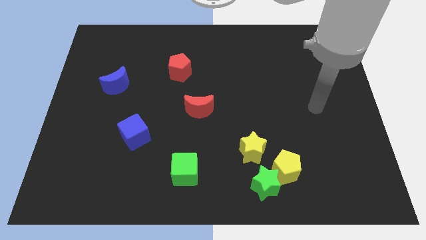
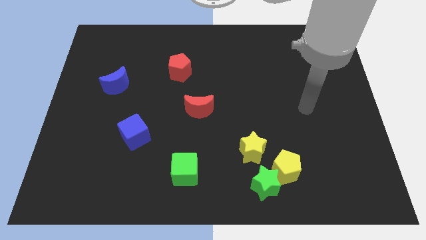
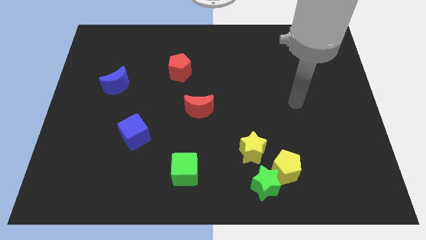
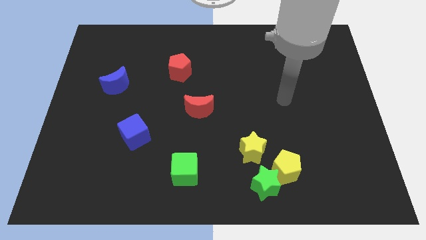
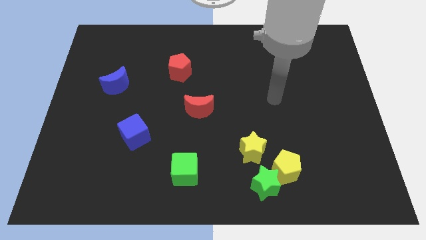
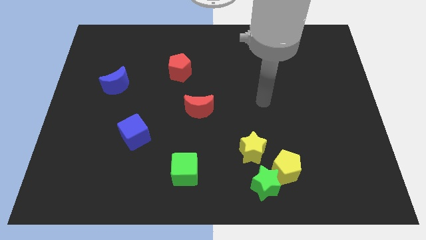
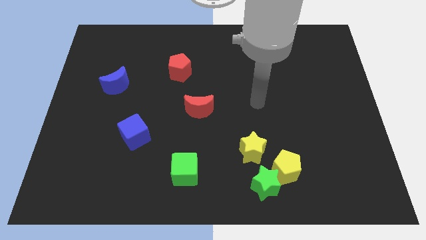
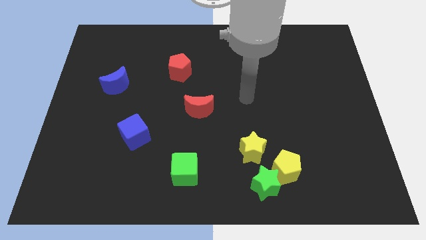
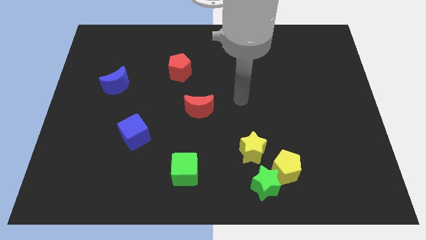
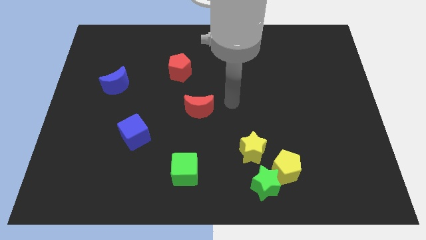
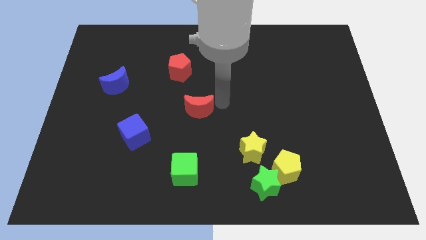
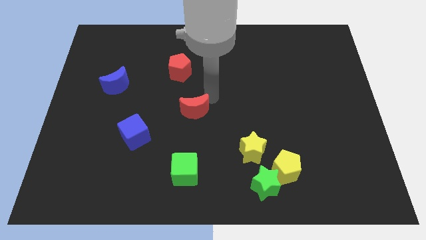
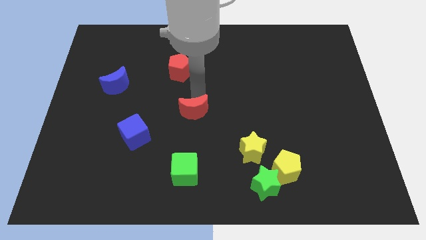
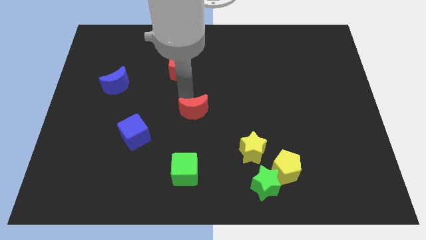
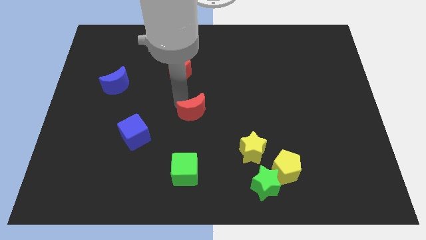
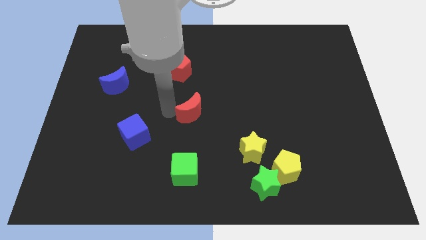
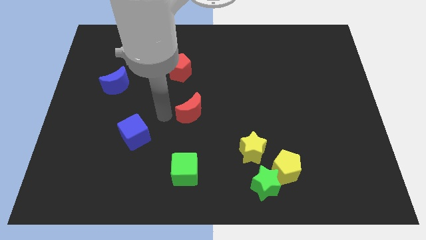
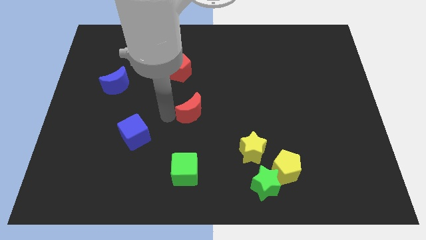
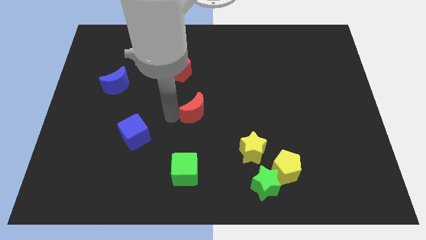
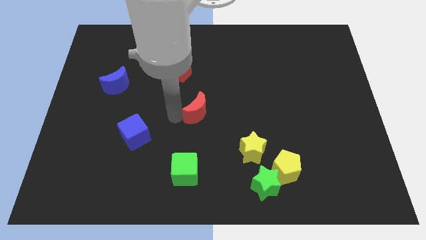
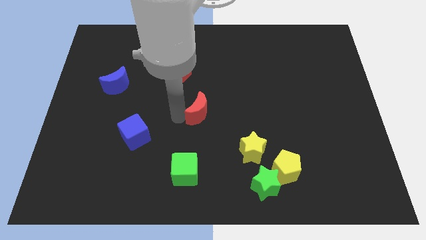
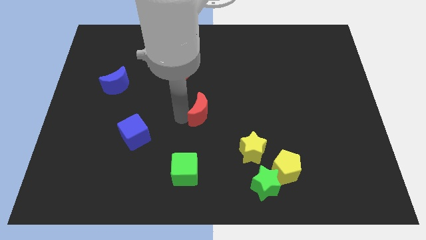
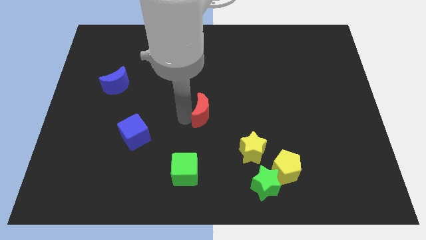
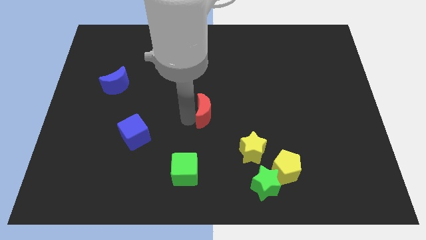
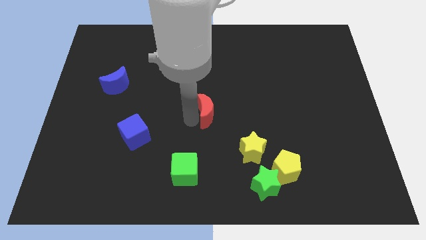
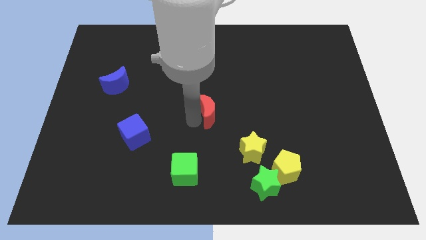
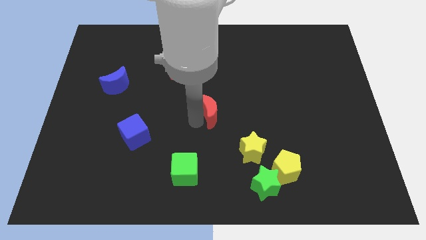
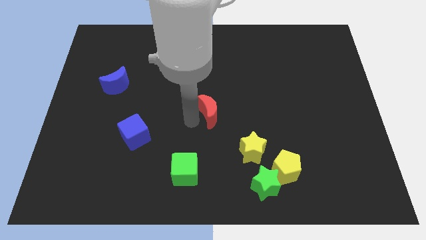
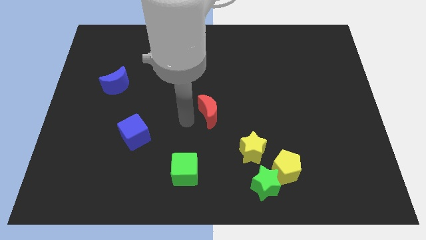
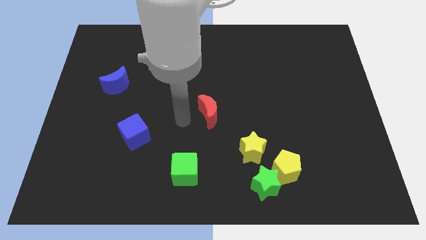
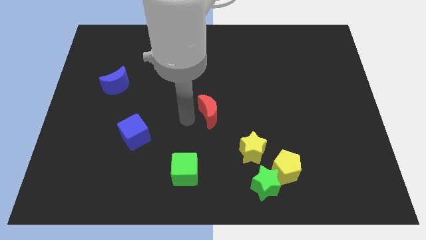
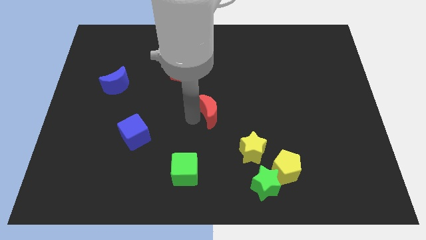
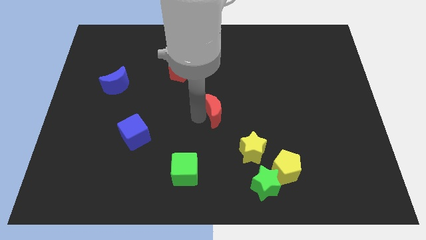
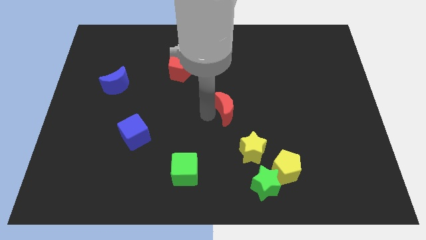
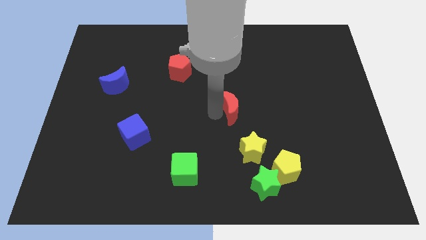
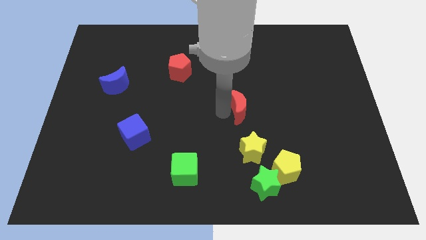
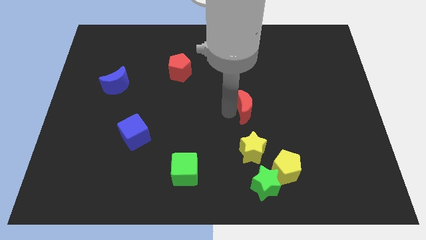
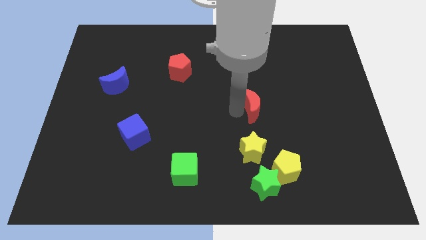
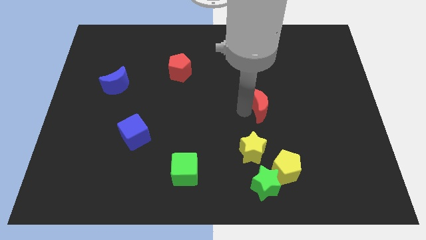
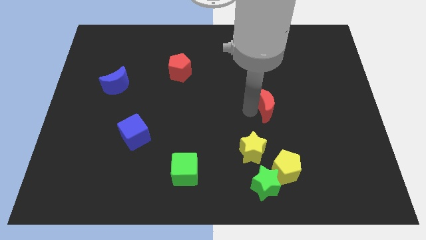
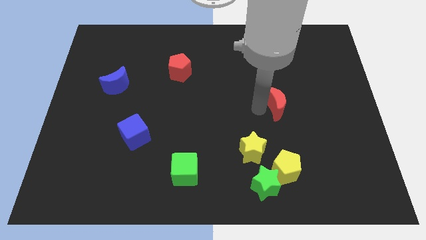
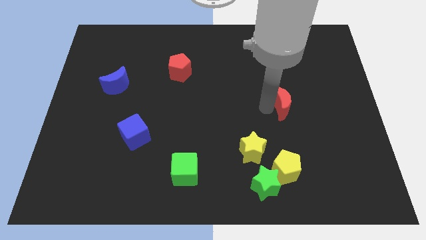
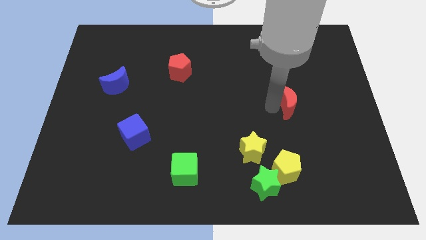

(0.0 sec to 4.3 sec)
move the red moon right

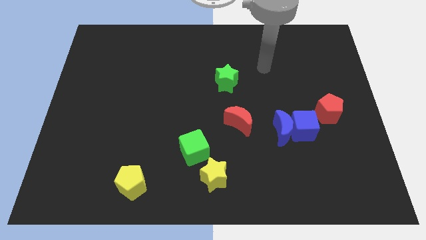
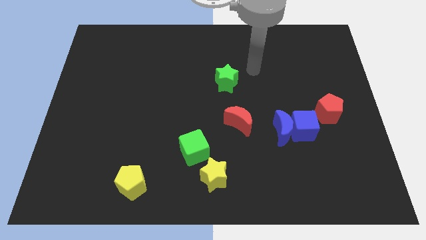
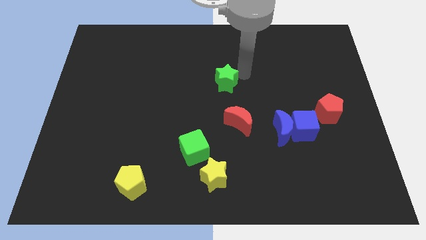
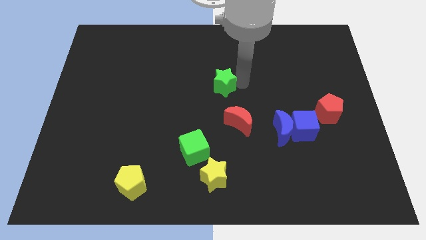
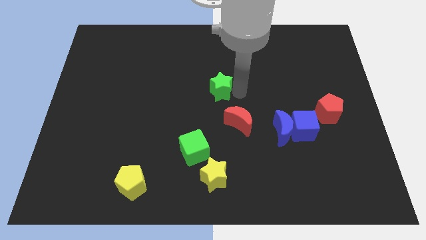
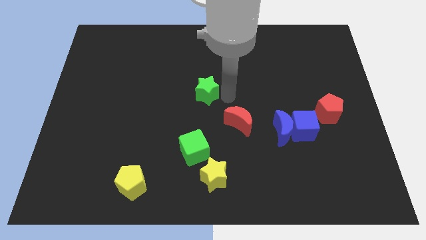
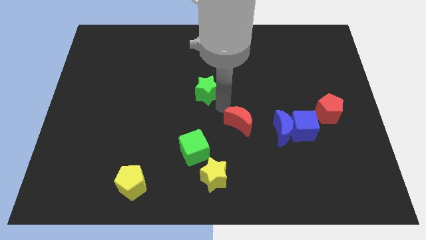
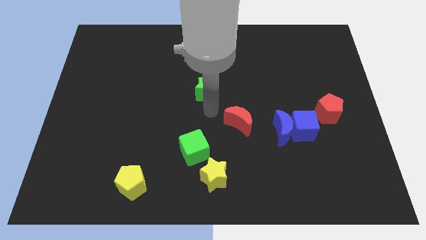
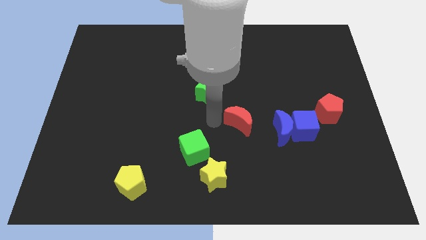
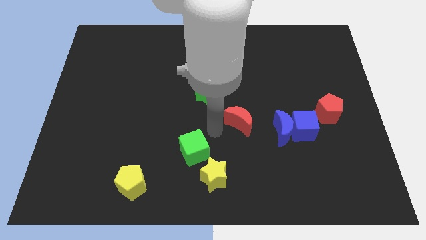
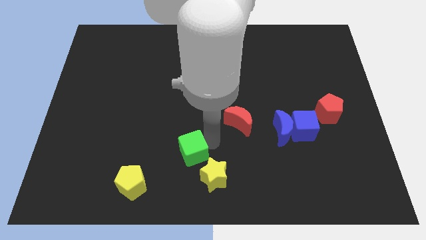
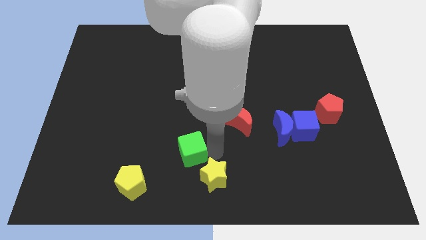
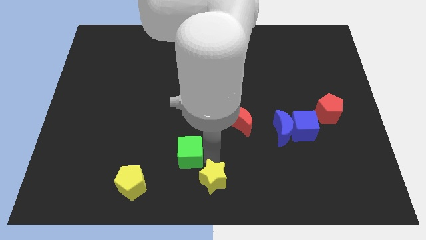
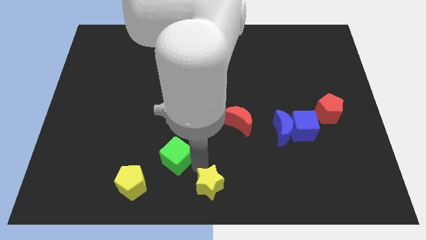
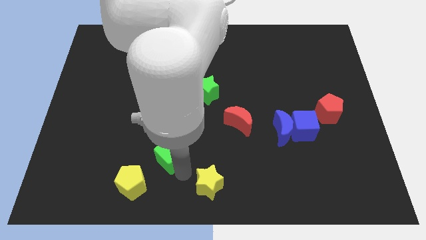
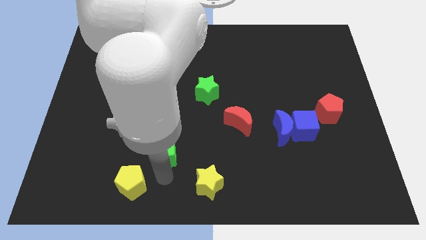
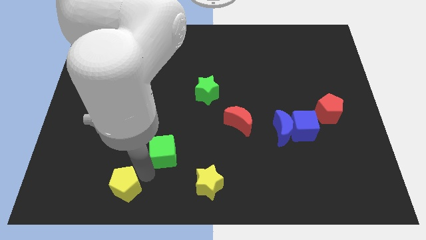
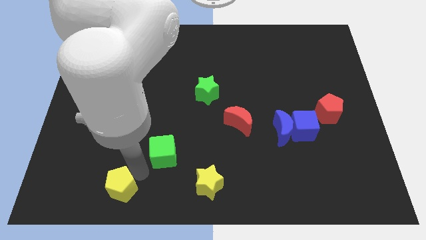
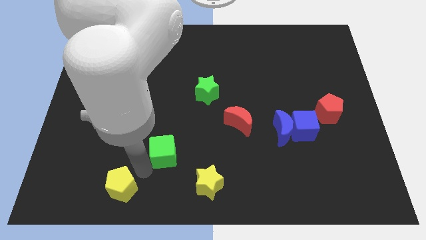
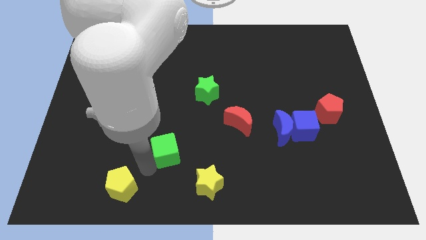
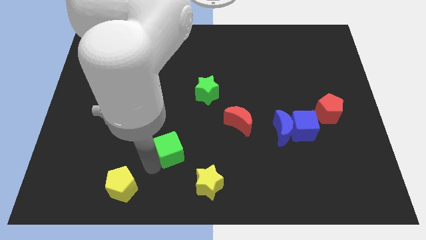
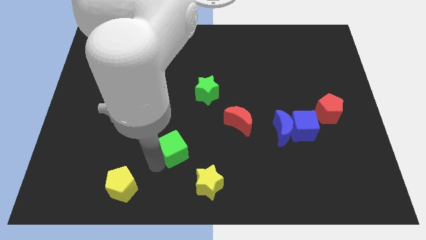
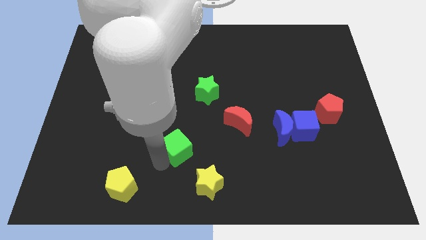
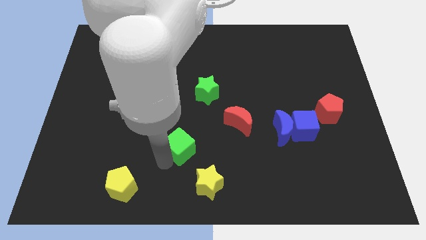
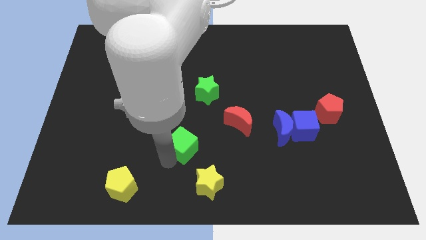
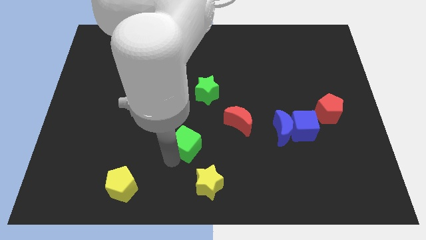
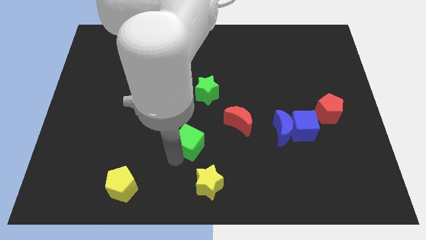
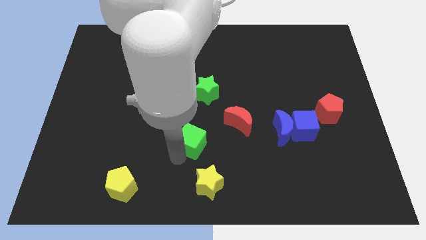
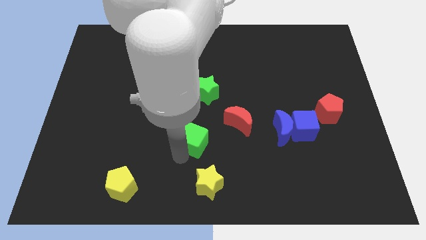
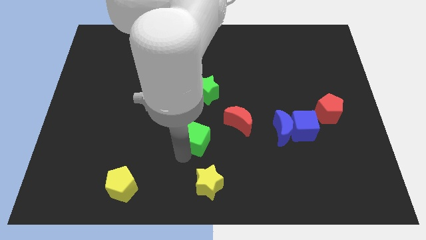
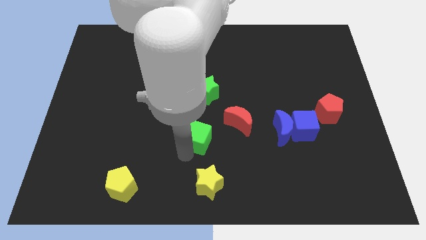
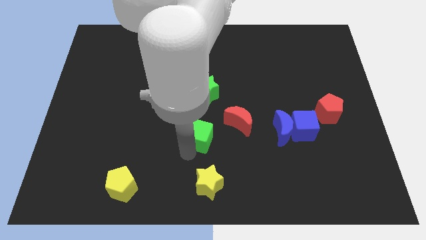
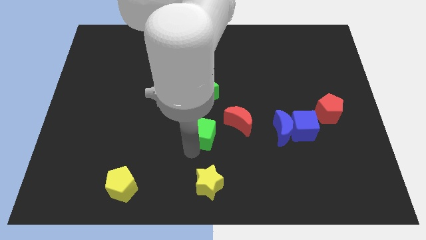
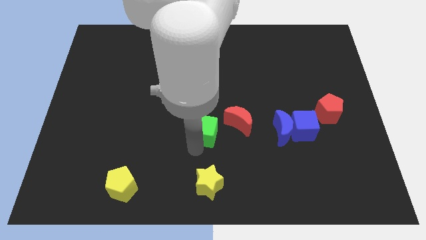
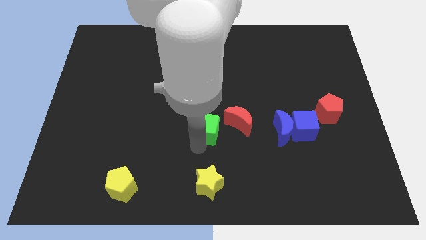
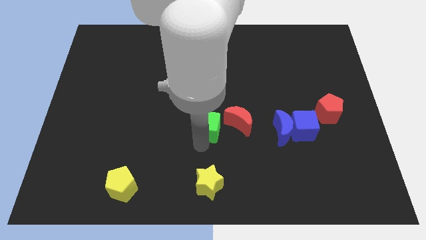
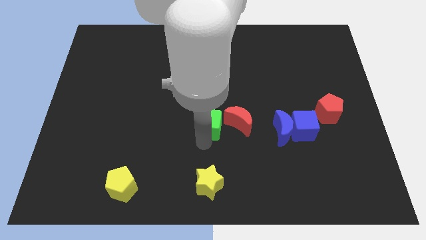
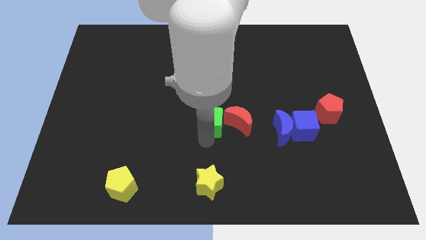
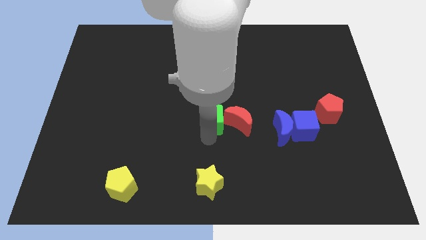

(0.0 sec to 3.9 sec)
slightly move the green cube up
